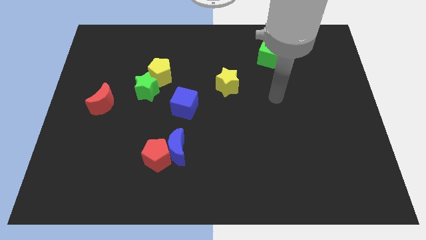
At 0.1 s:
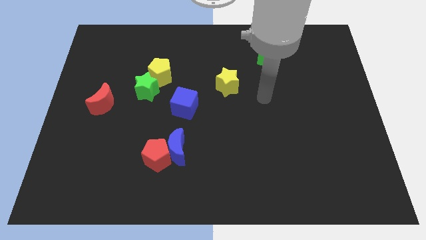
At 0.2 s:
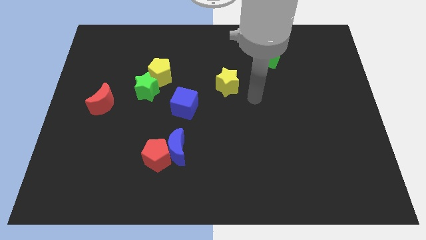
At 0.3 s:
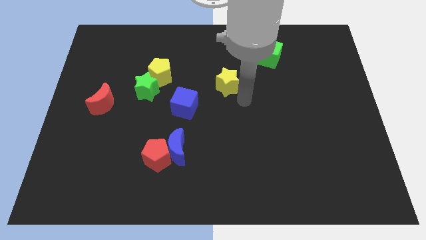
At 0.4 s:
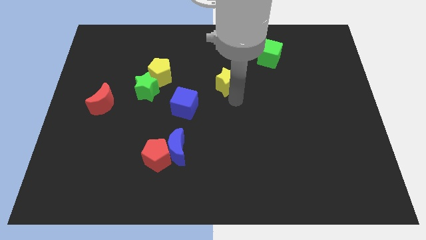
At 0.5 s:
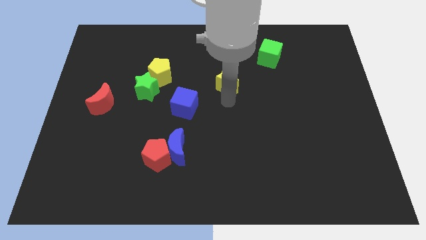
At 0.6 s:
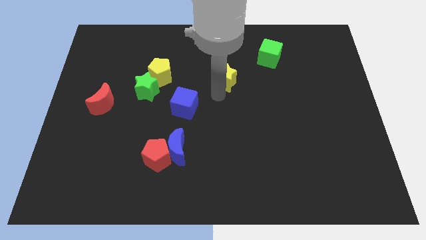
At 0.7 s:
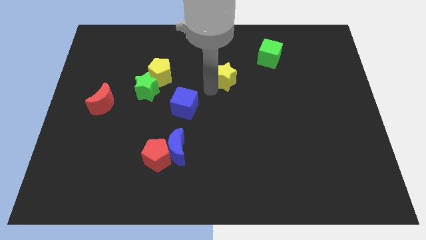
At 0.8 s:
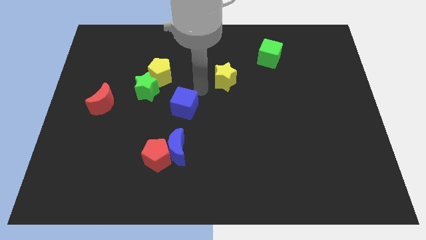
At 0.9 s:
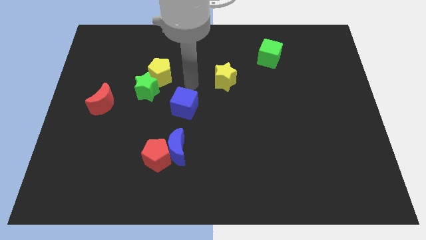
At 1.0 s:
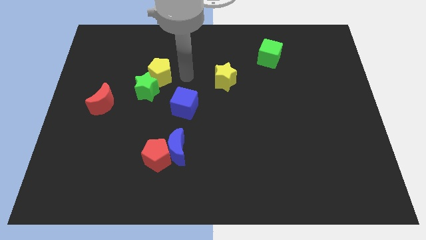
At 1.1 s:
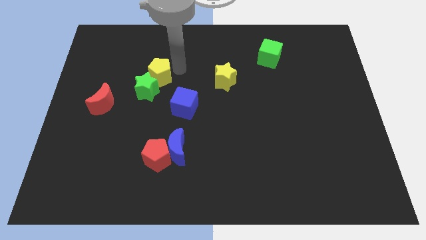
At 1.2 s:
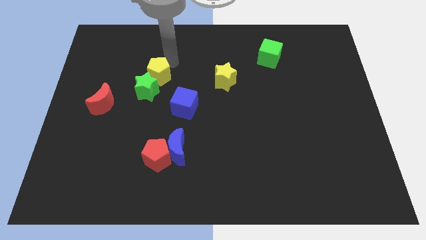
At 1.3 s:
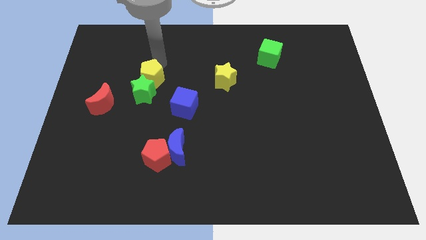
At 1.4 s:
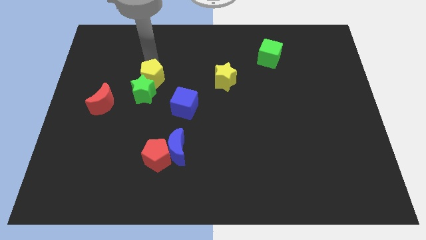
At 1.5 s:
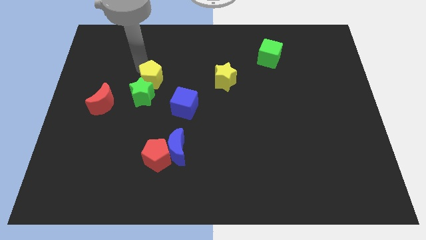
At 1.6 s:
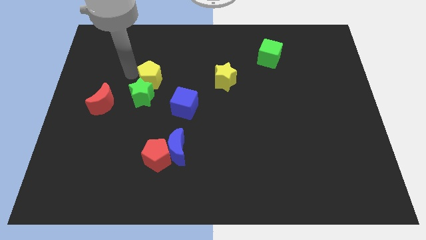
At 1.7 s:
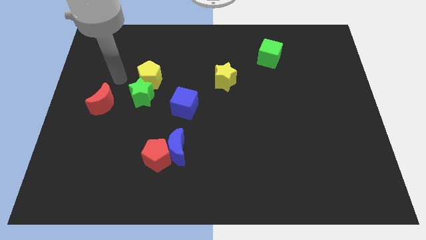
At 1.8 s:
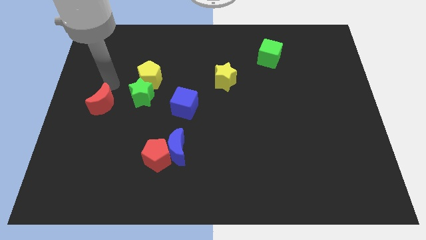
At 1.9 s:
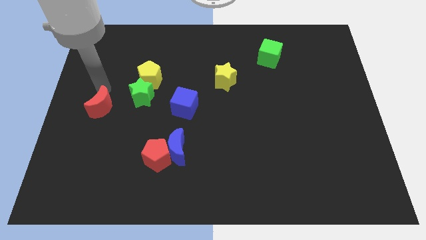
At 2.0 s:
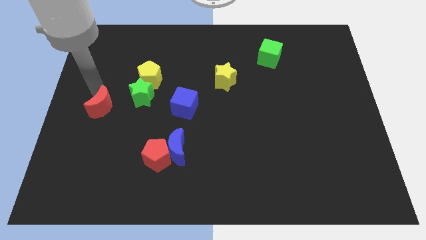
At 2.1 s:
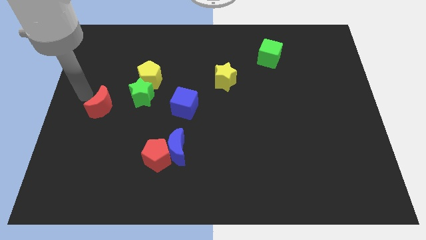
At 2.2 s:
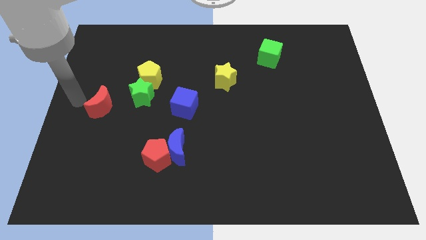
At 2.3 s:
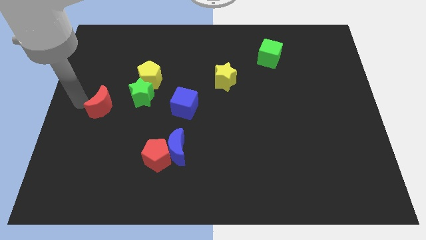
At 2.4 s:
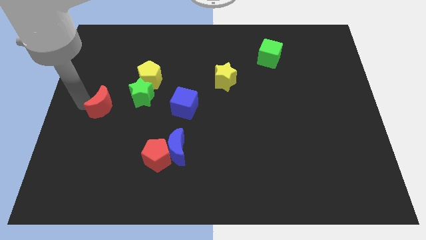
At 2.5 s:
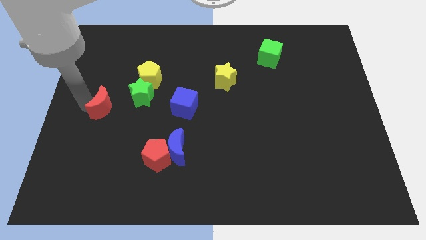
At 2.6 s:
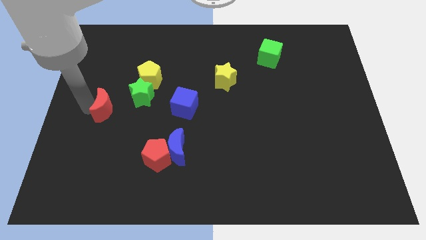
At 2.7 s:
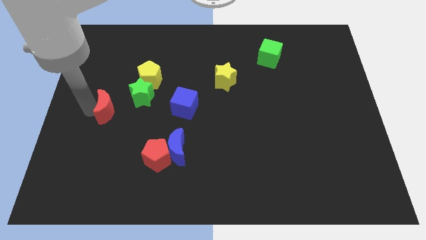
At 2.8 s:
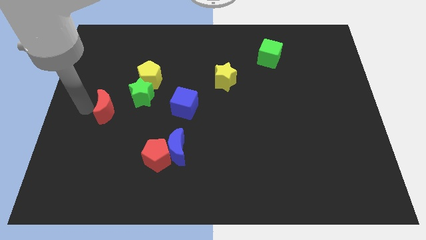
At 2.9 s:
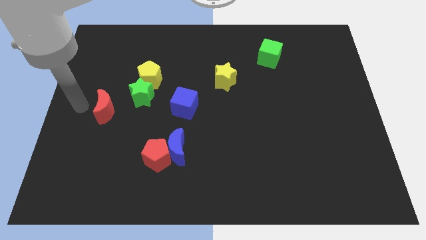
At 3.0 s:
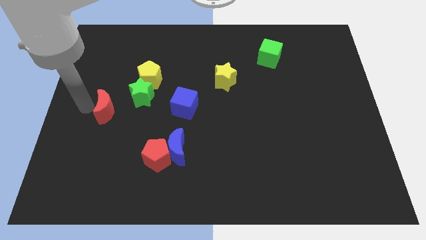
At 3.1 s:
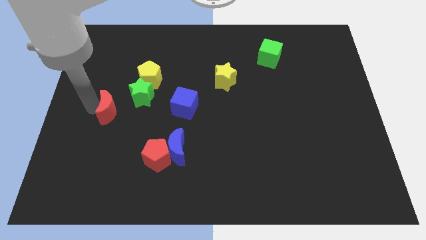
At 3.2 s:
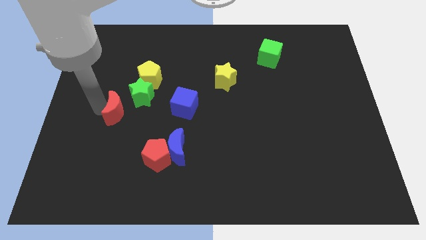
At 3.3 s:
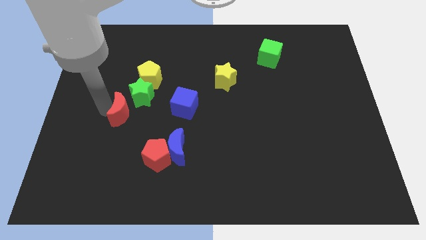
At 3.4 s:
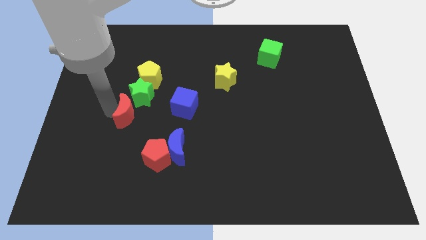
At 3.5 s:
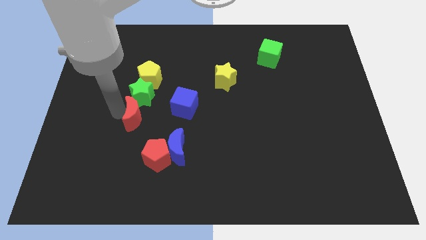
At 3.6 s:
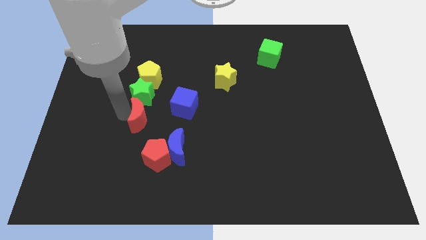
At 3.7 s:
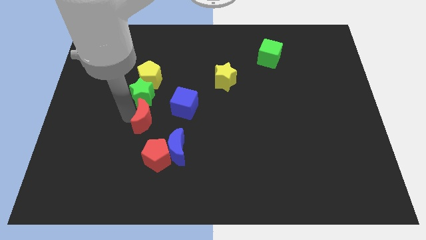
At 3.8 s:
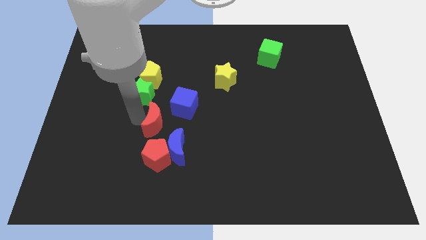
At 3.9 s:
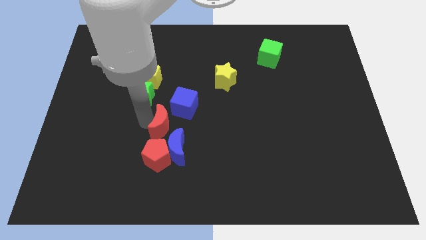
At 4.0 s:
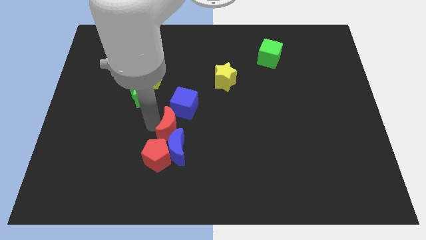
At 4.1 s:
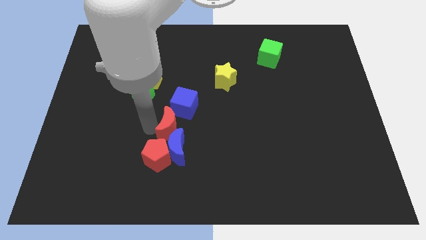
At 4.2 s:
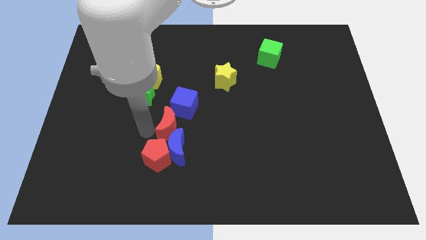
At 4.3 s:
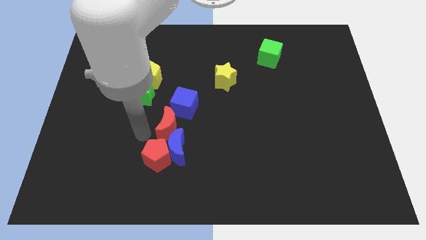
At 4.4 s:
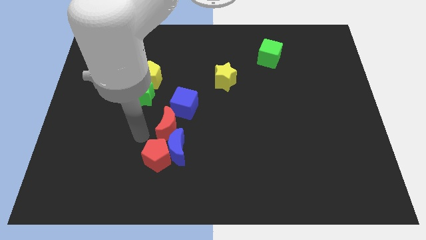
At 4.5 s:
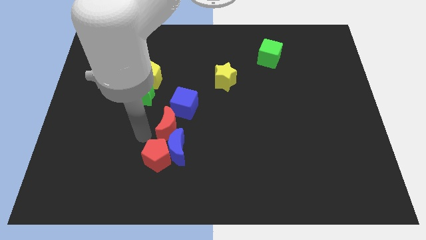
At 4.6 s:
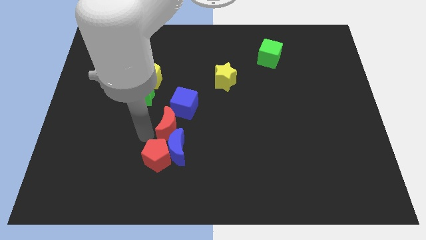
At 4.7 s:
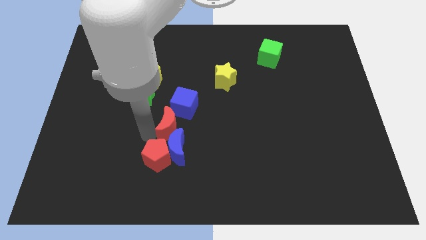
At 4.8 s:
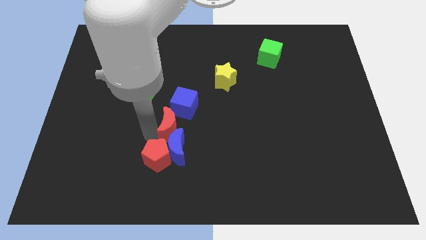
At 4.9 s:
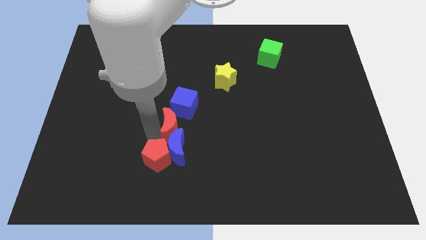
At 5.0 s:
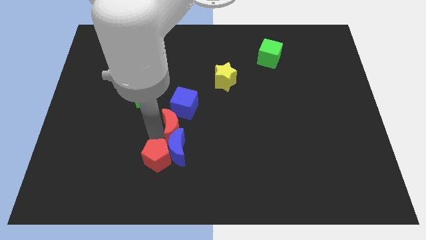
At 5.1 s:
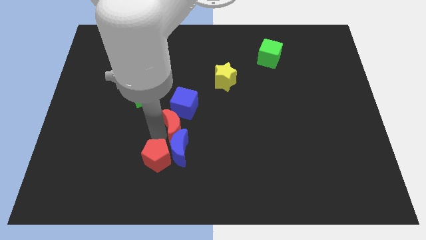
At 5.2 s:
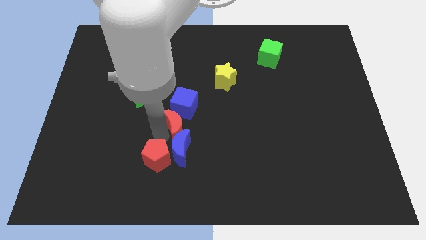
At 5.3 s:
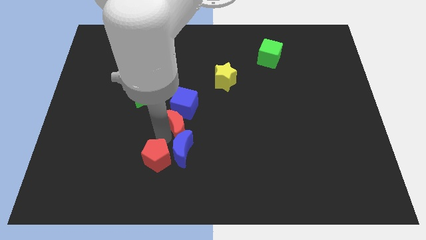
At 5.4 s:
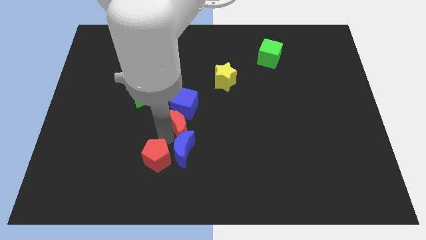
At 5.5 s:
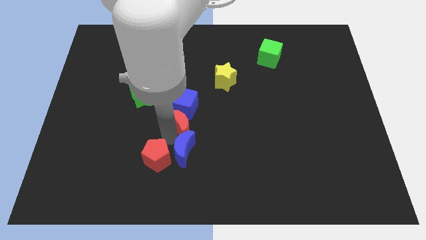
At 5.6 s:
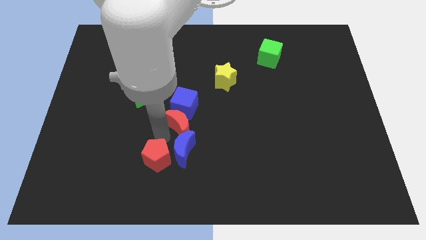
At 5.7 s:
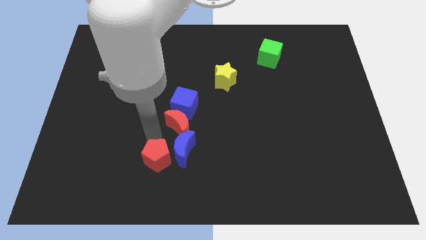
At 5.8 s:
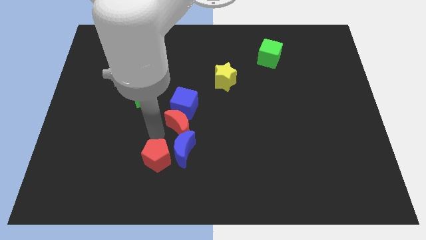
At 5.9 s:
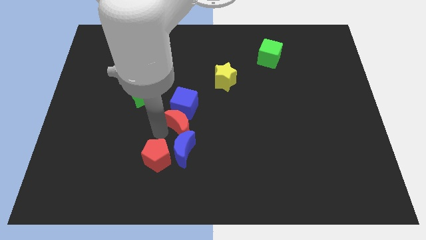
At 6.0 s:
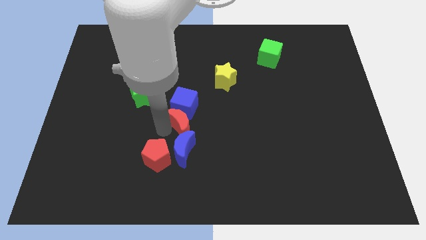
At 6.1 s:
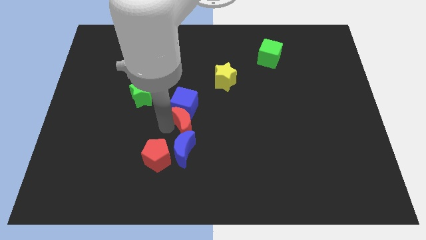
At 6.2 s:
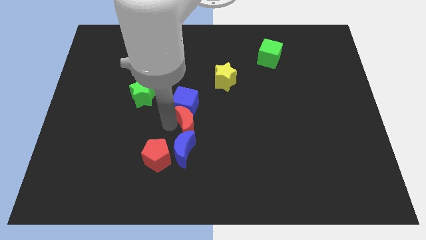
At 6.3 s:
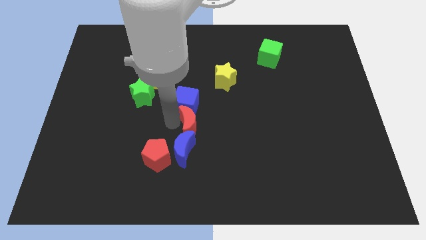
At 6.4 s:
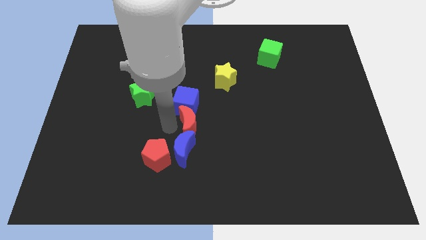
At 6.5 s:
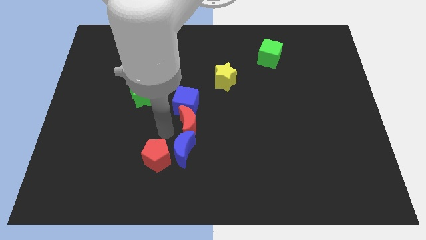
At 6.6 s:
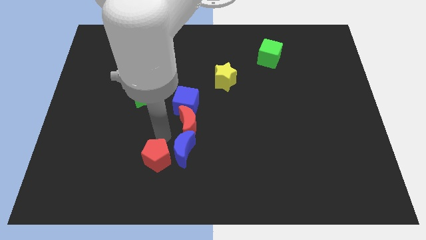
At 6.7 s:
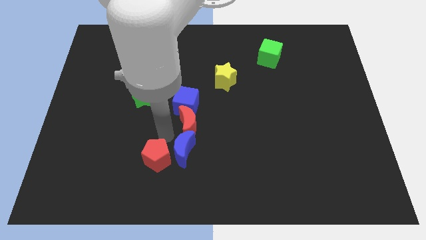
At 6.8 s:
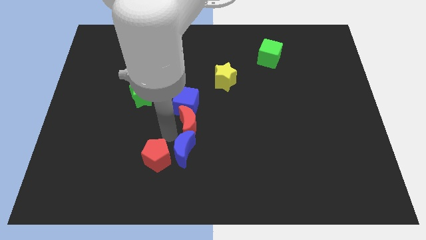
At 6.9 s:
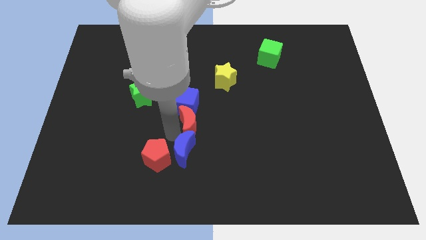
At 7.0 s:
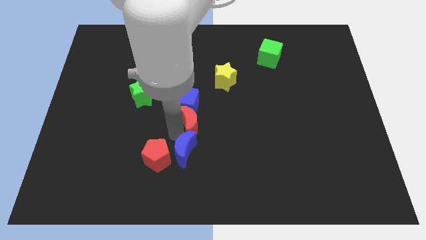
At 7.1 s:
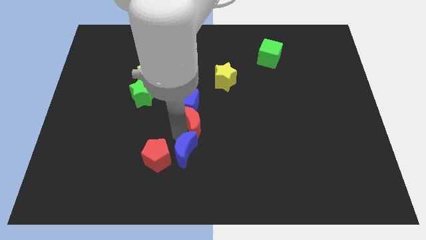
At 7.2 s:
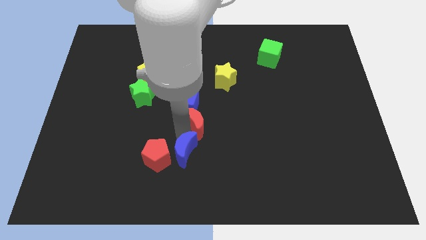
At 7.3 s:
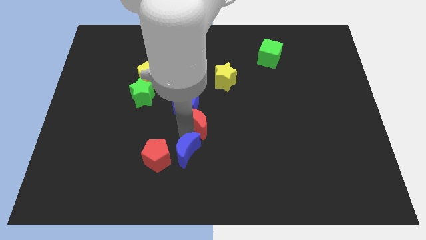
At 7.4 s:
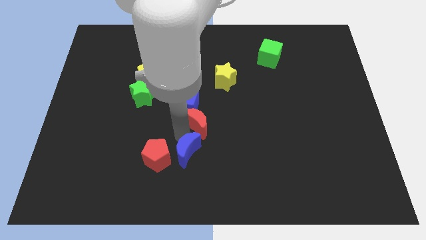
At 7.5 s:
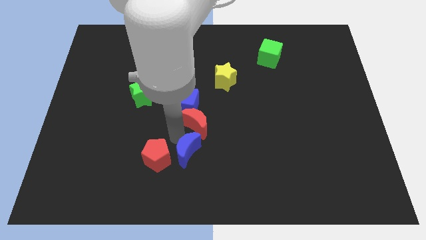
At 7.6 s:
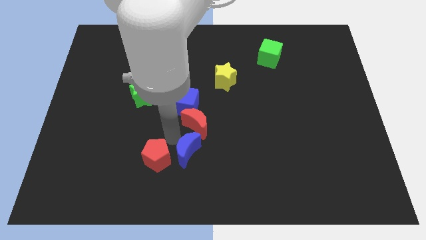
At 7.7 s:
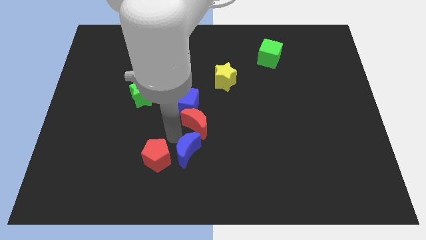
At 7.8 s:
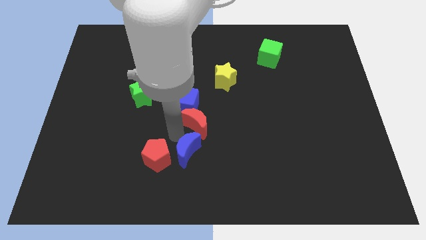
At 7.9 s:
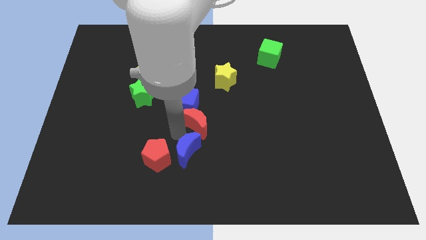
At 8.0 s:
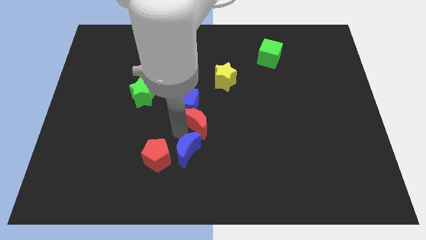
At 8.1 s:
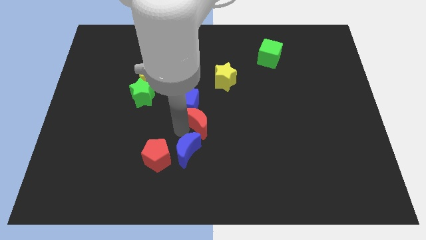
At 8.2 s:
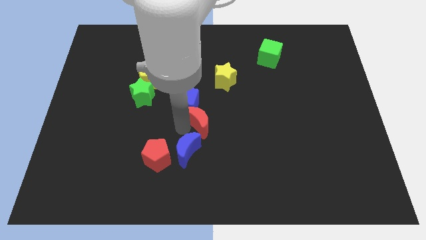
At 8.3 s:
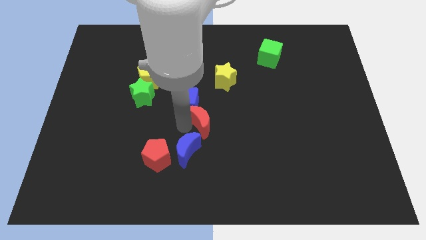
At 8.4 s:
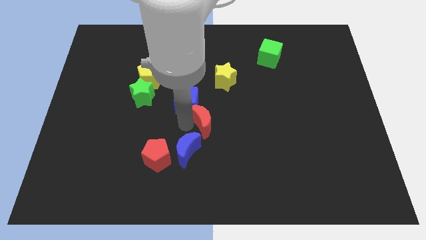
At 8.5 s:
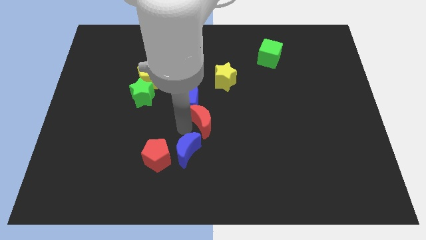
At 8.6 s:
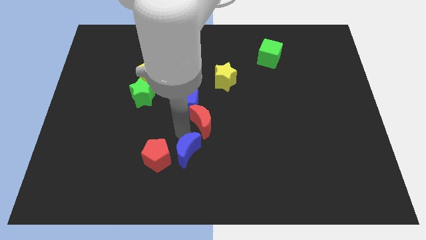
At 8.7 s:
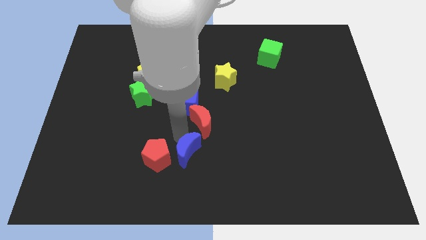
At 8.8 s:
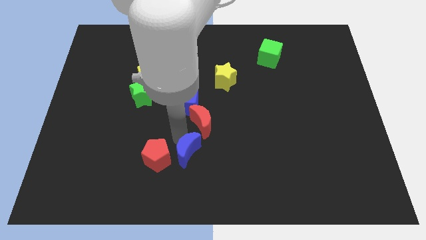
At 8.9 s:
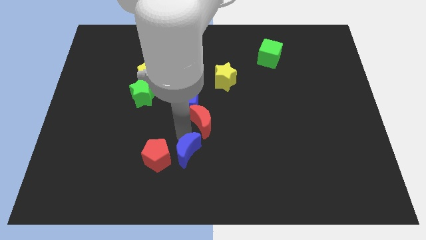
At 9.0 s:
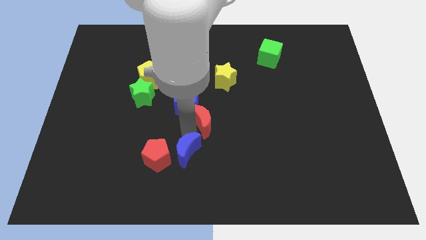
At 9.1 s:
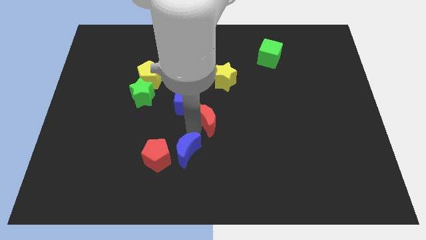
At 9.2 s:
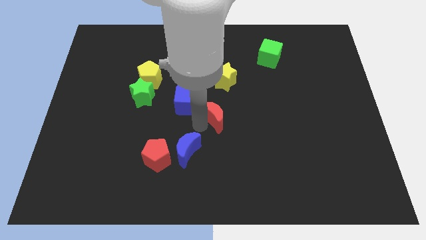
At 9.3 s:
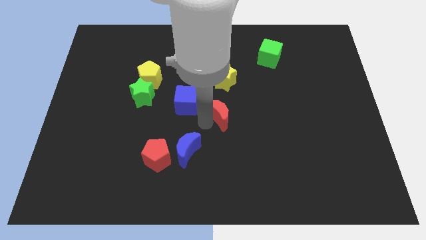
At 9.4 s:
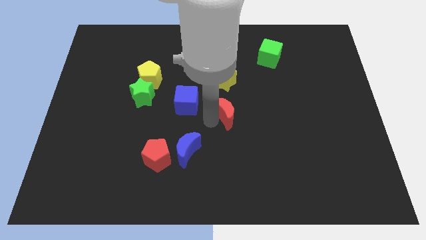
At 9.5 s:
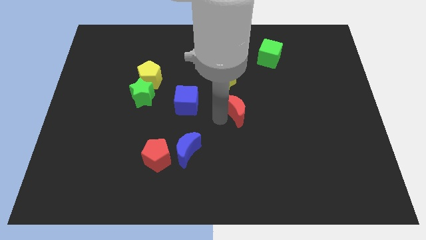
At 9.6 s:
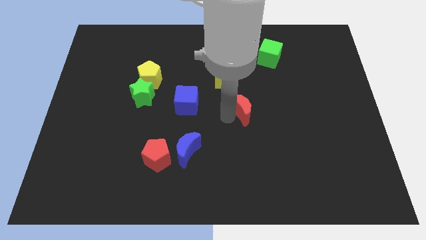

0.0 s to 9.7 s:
push the red moon to the bottom right side of the yellow star
